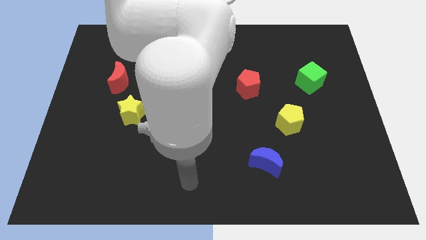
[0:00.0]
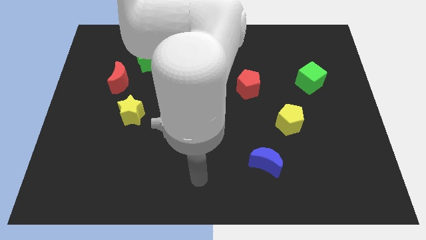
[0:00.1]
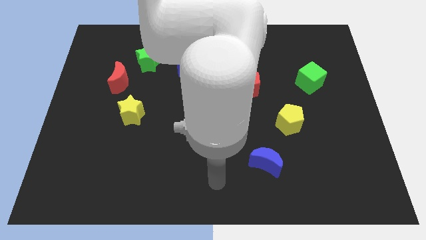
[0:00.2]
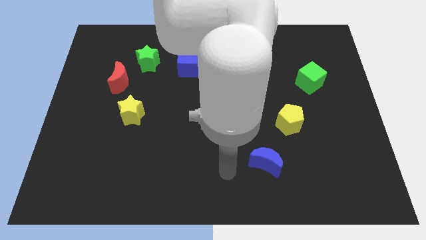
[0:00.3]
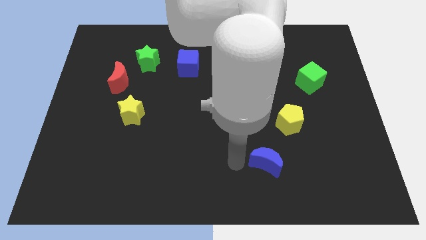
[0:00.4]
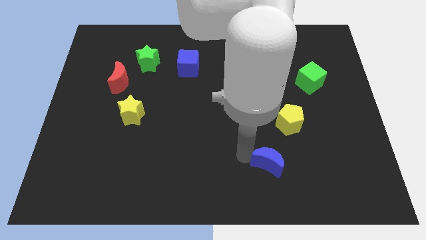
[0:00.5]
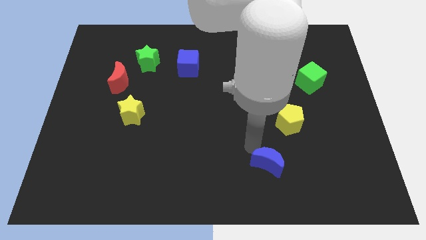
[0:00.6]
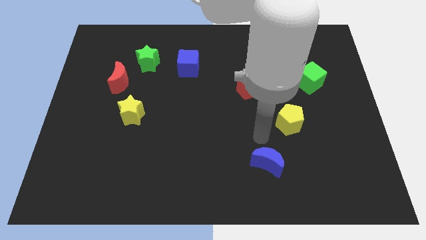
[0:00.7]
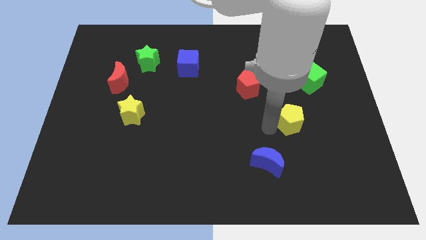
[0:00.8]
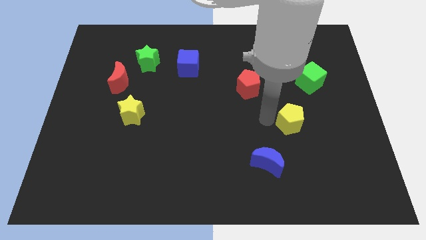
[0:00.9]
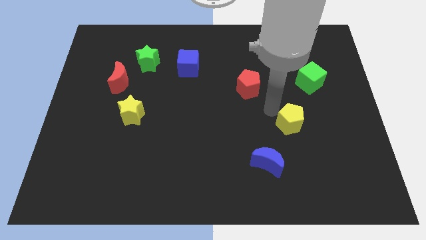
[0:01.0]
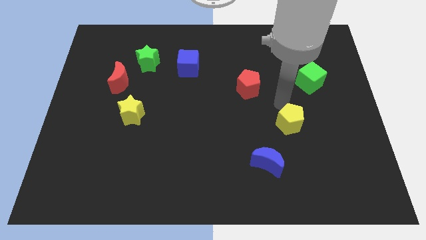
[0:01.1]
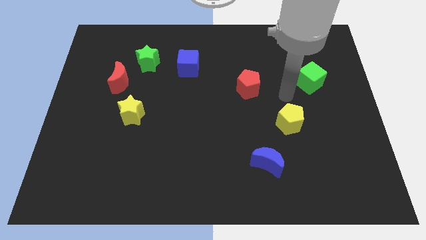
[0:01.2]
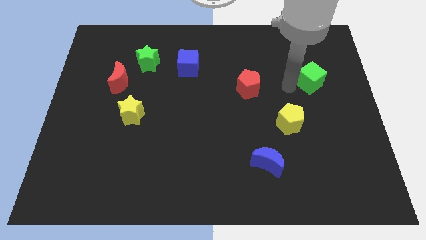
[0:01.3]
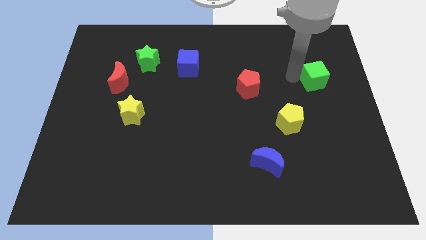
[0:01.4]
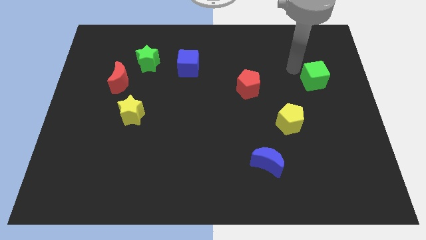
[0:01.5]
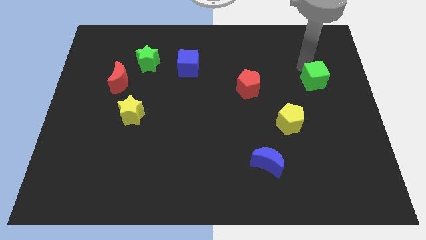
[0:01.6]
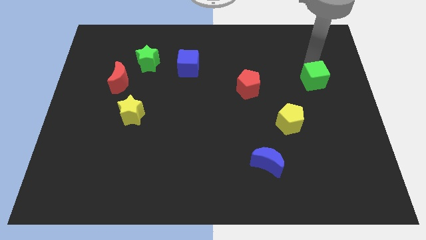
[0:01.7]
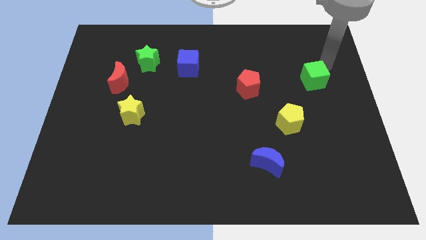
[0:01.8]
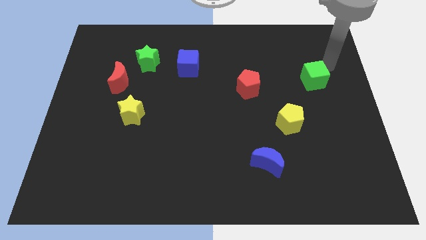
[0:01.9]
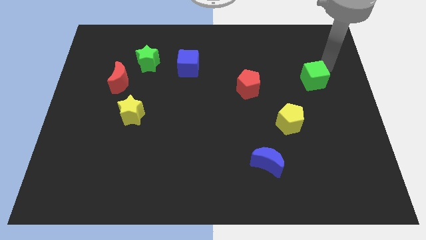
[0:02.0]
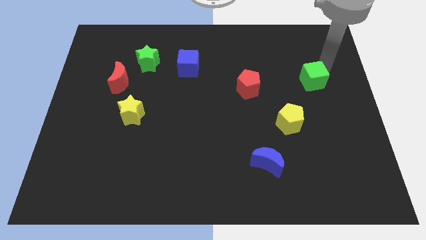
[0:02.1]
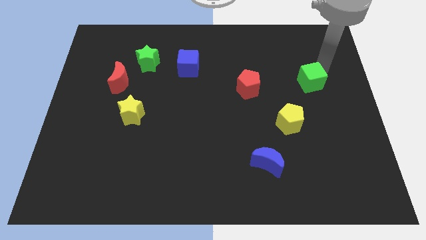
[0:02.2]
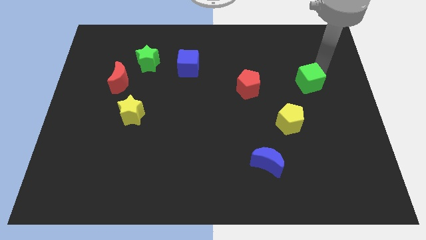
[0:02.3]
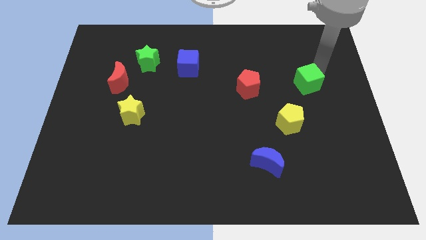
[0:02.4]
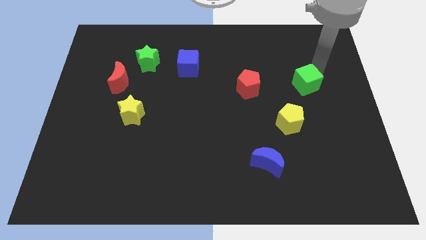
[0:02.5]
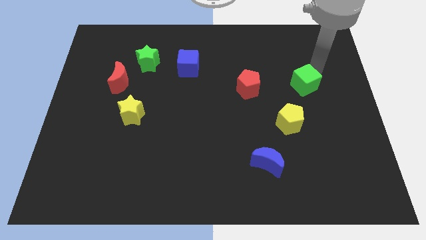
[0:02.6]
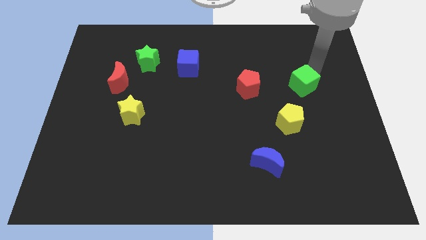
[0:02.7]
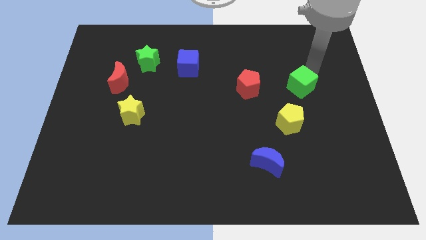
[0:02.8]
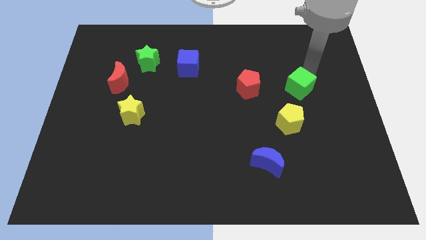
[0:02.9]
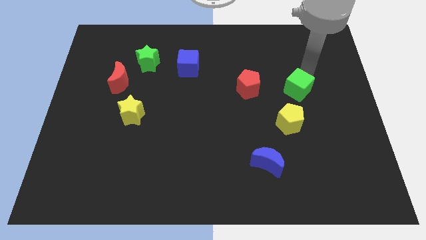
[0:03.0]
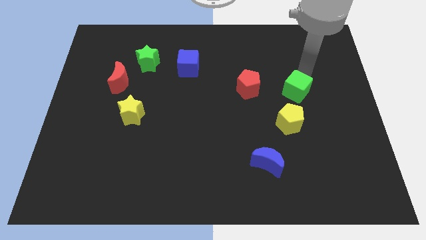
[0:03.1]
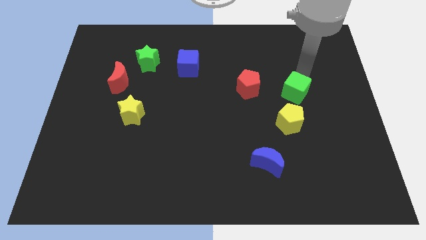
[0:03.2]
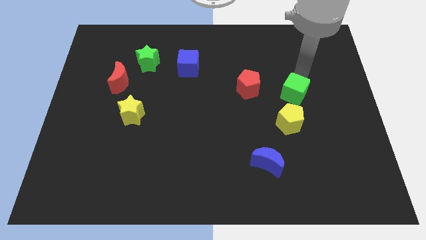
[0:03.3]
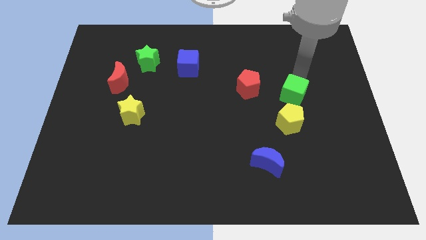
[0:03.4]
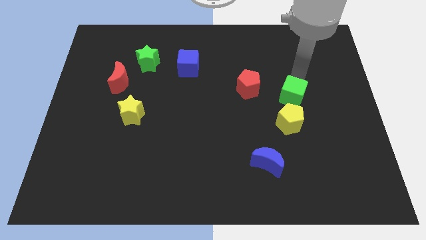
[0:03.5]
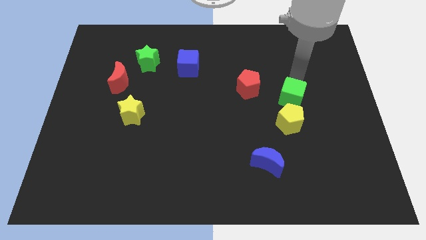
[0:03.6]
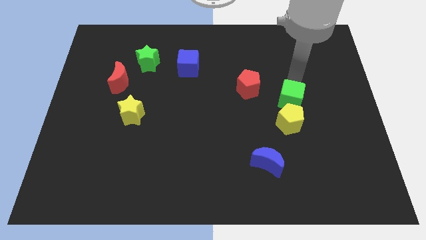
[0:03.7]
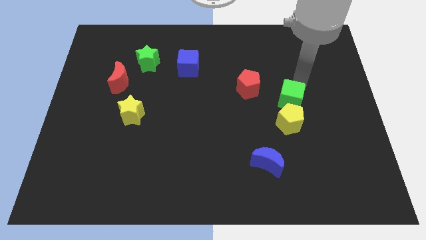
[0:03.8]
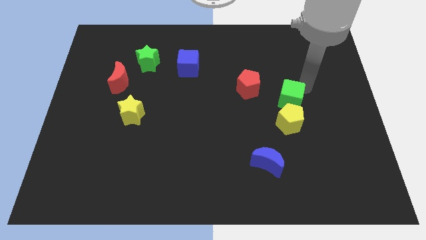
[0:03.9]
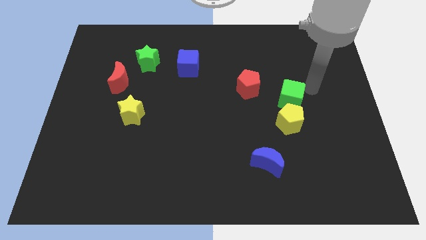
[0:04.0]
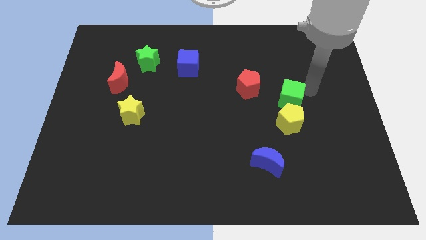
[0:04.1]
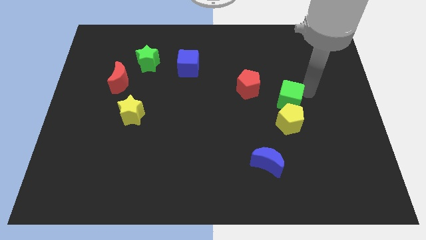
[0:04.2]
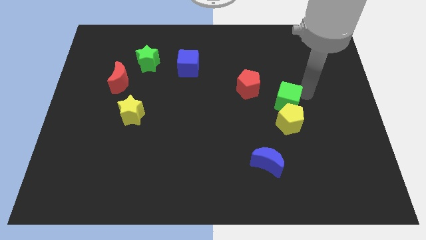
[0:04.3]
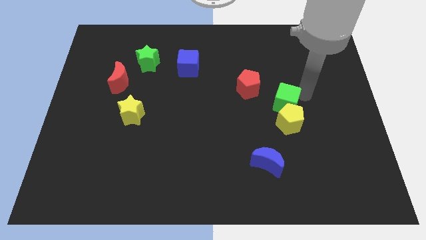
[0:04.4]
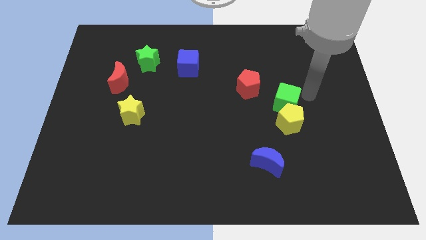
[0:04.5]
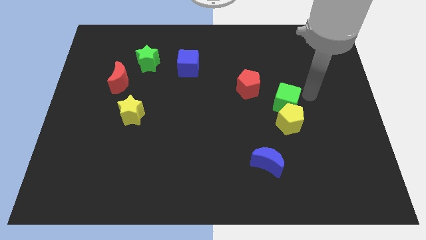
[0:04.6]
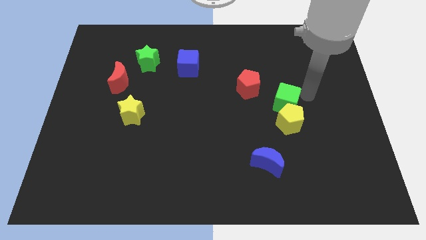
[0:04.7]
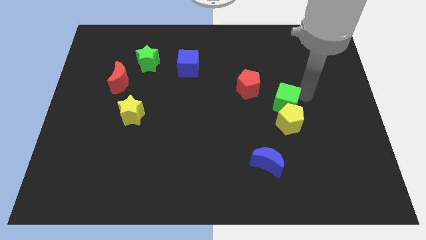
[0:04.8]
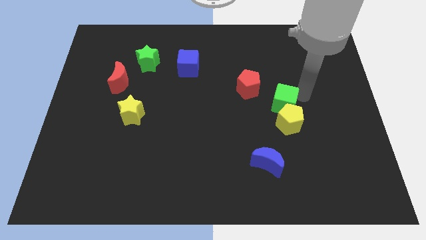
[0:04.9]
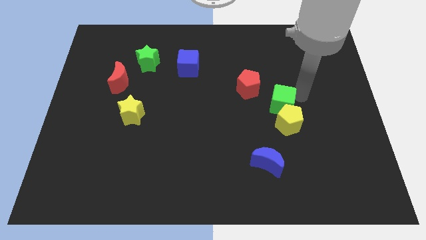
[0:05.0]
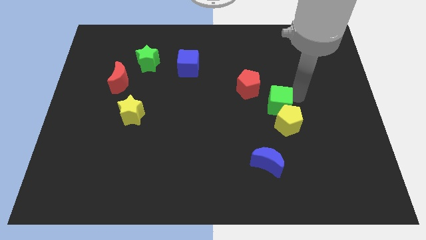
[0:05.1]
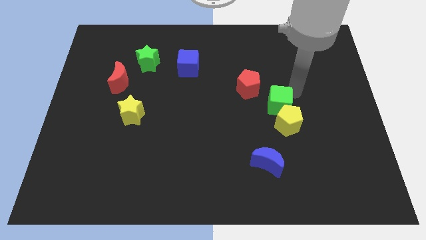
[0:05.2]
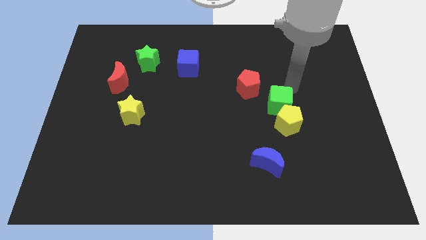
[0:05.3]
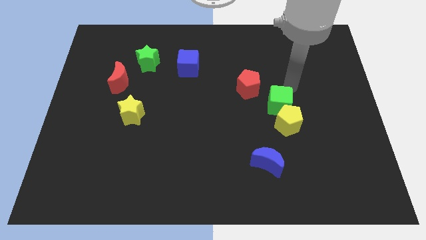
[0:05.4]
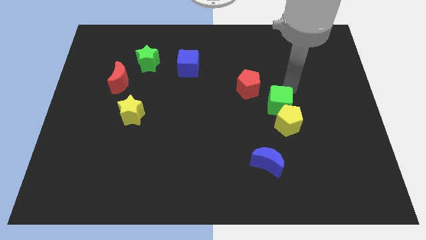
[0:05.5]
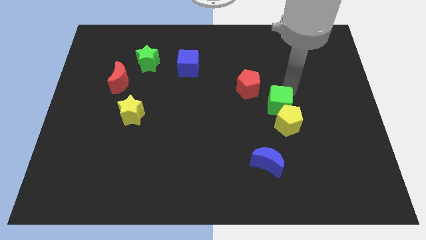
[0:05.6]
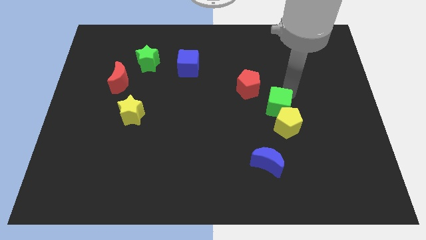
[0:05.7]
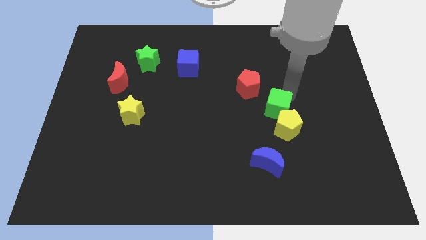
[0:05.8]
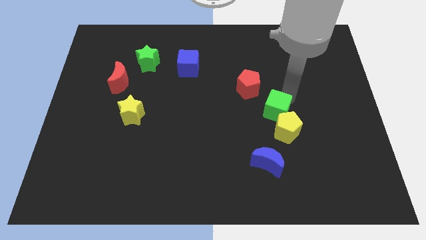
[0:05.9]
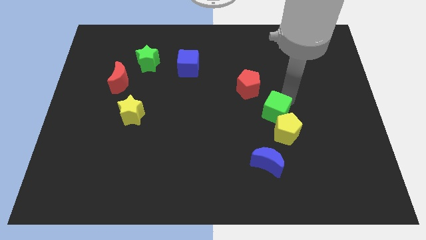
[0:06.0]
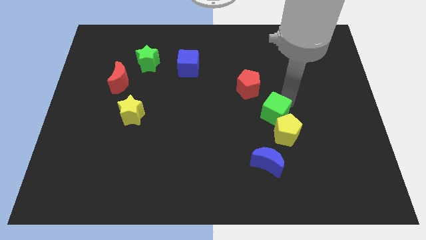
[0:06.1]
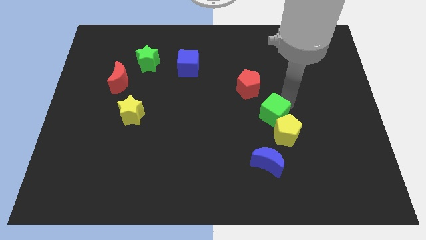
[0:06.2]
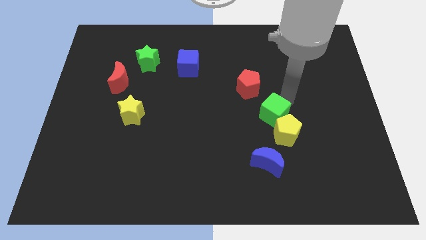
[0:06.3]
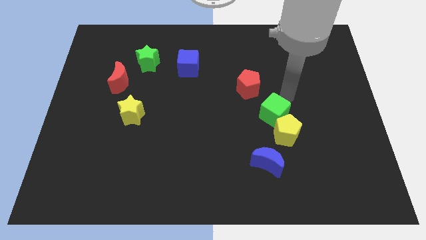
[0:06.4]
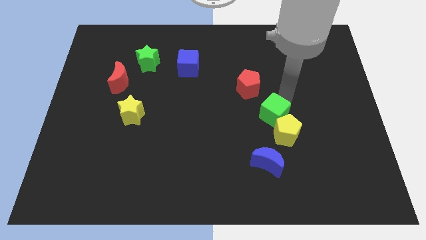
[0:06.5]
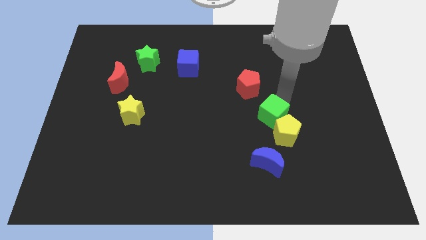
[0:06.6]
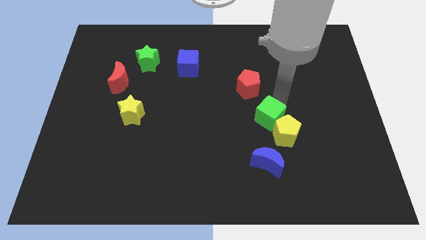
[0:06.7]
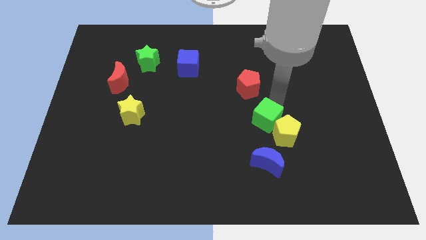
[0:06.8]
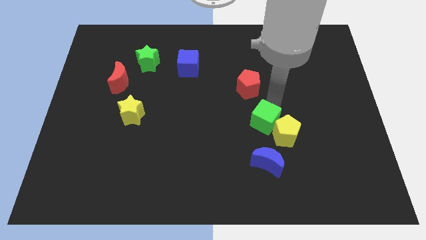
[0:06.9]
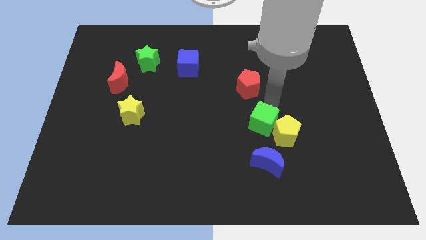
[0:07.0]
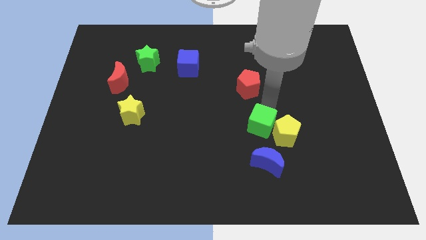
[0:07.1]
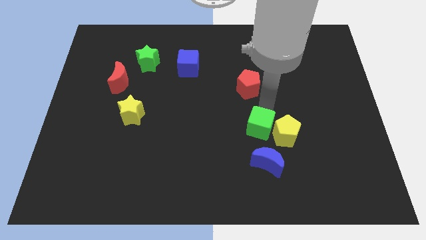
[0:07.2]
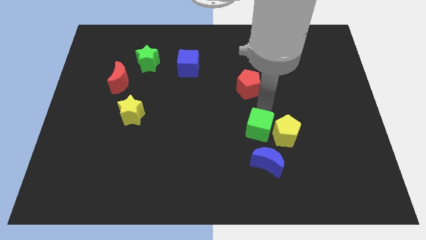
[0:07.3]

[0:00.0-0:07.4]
move the green cube diagonally down and to the left
